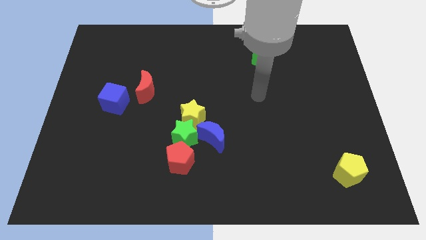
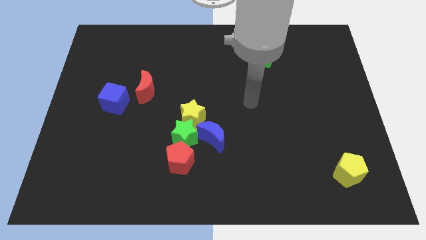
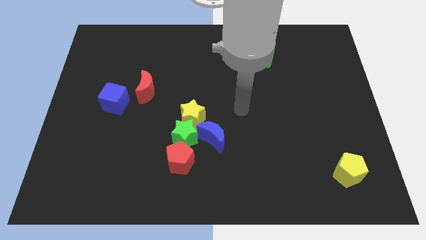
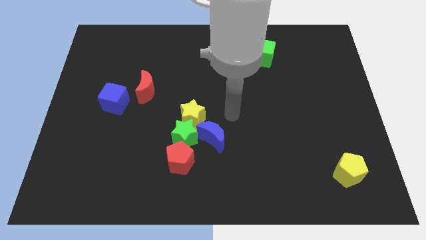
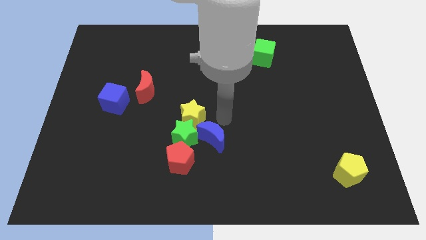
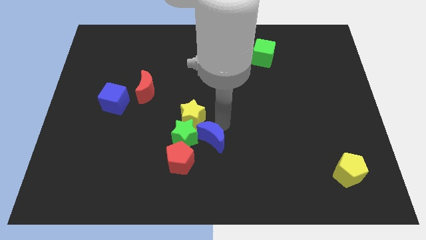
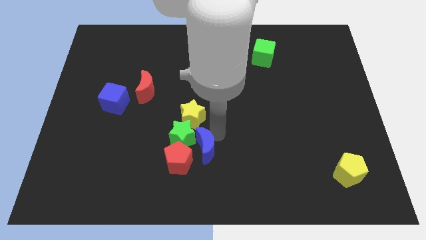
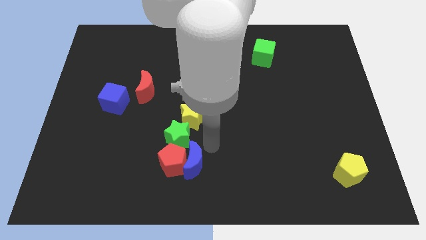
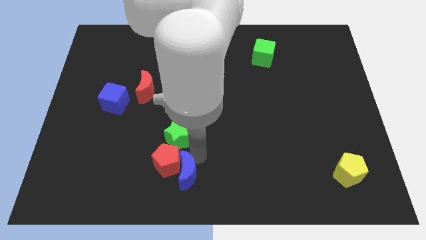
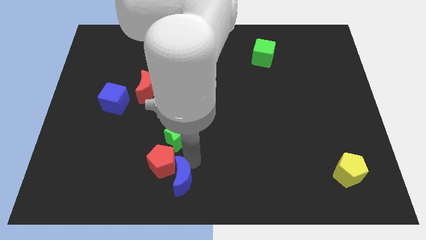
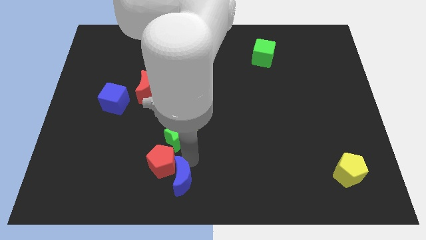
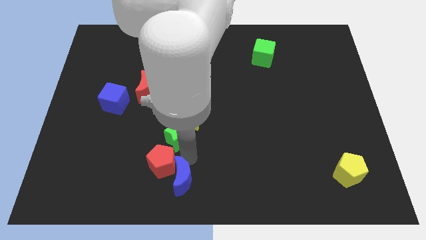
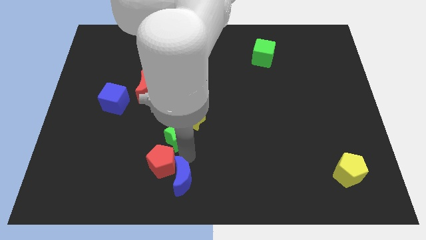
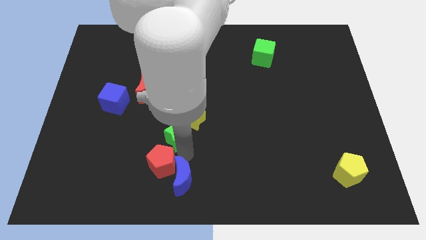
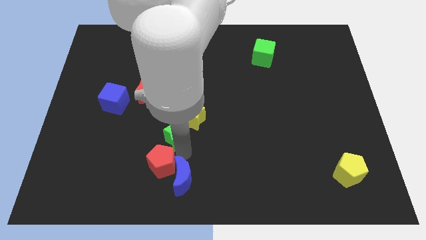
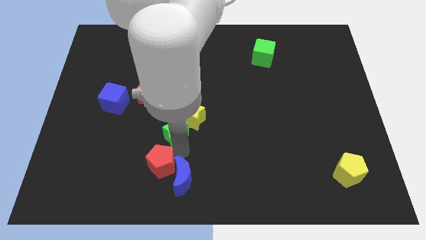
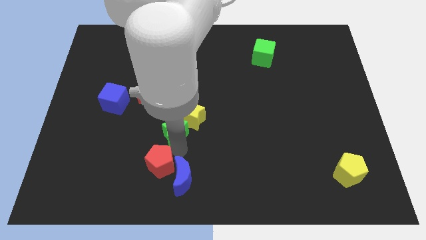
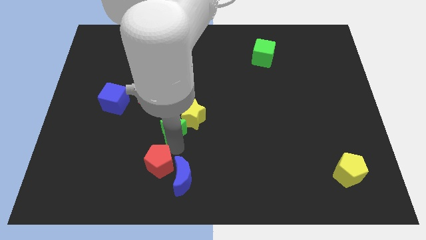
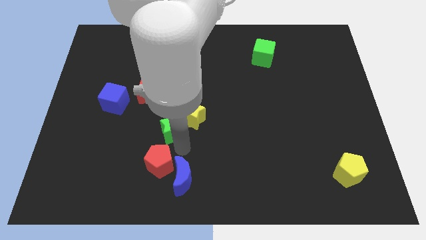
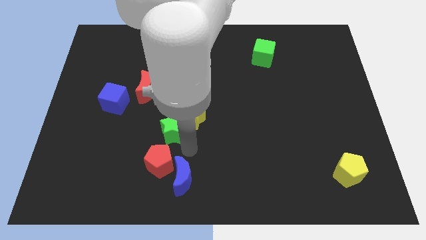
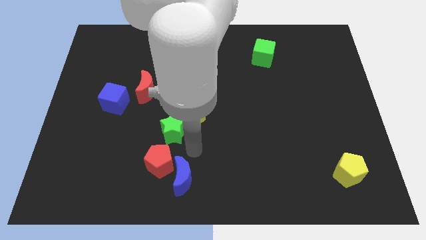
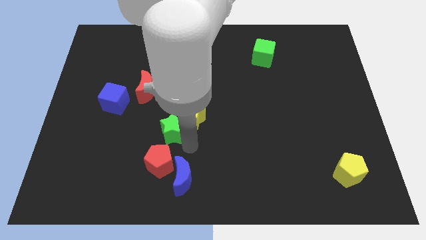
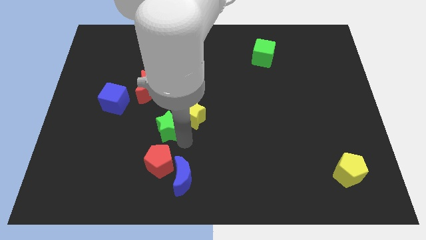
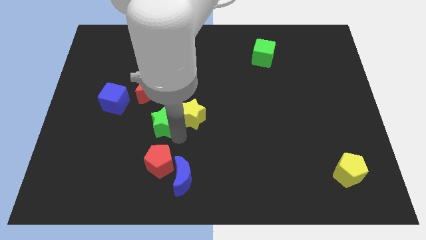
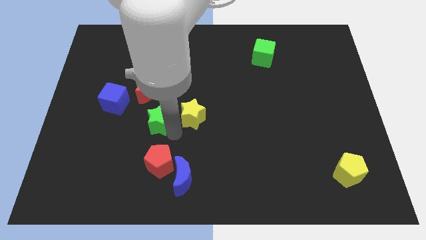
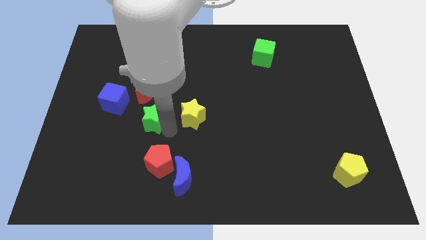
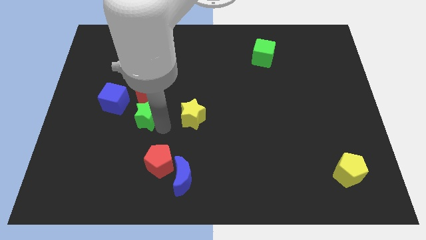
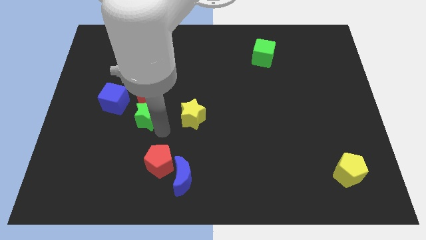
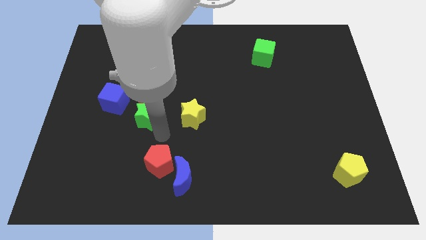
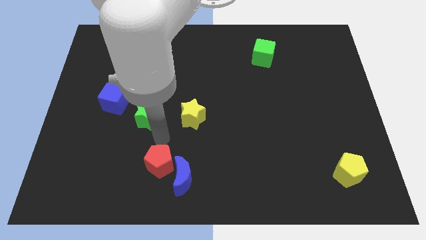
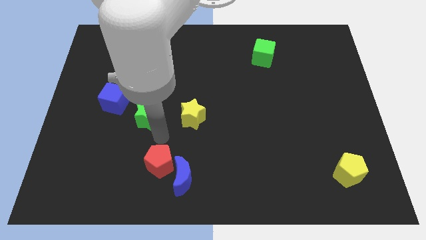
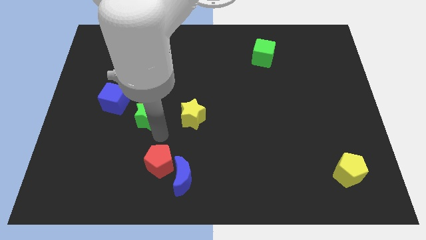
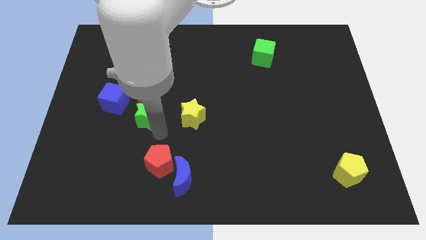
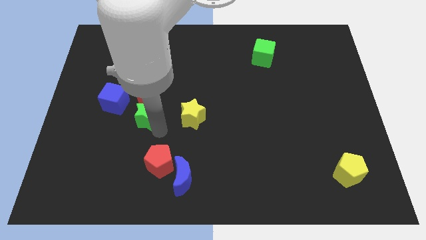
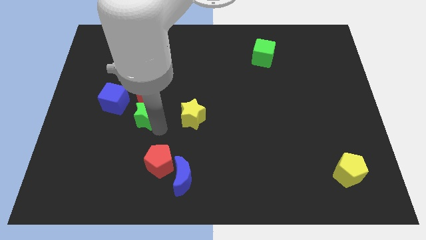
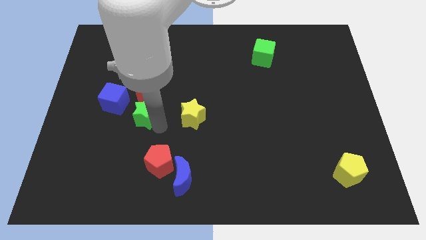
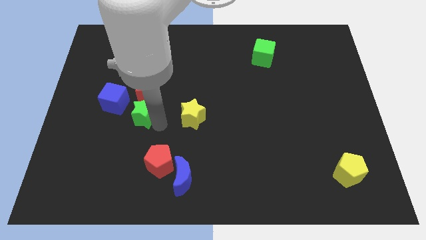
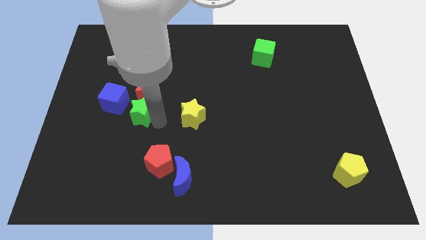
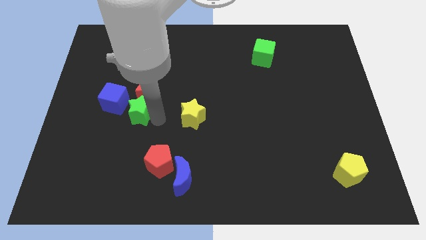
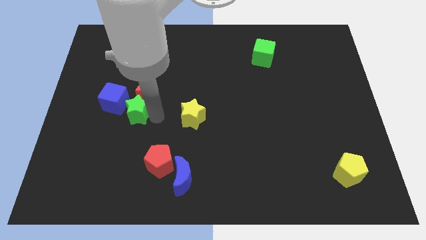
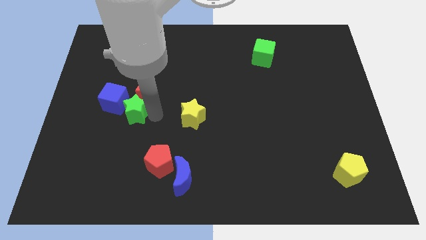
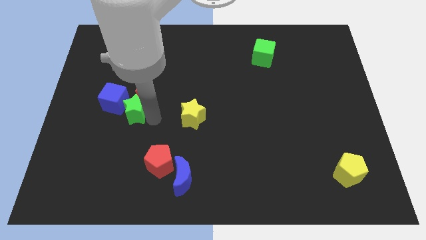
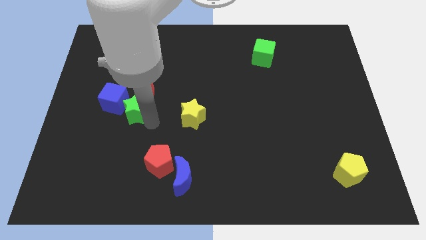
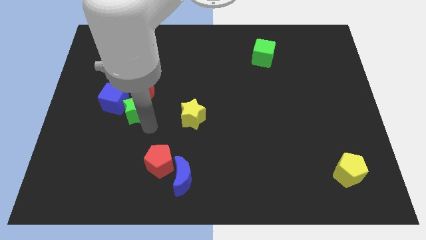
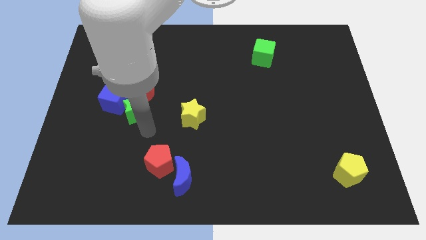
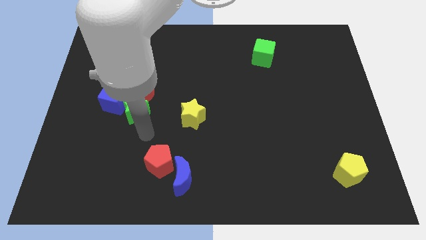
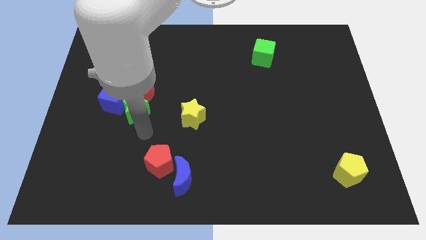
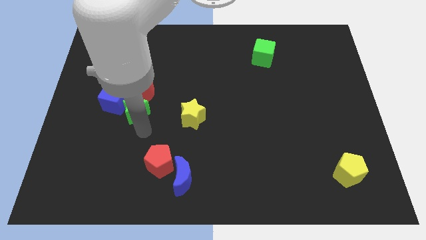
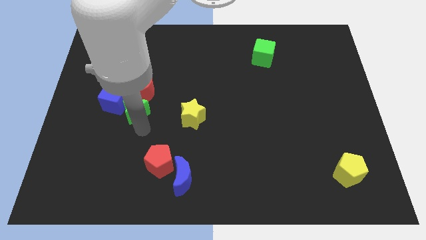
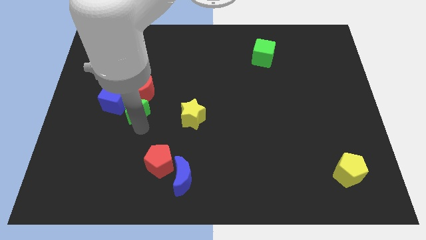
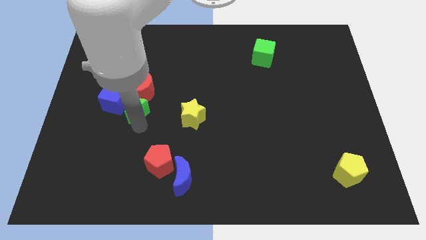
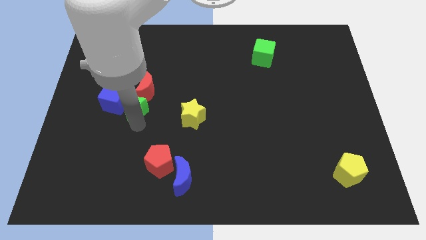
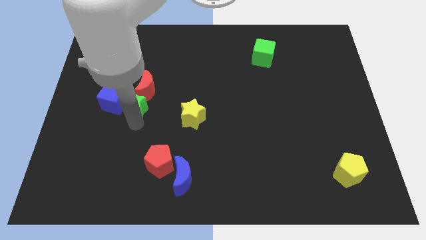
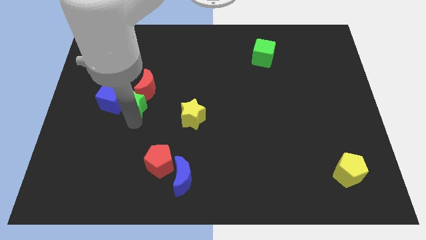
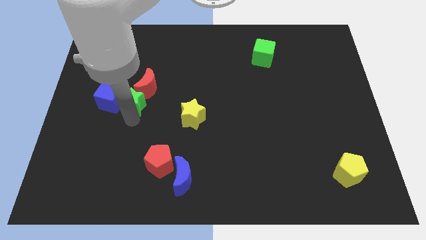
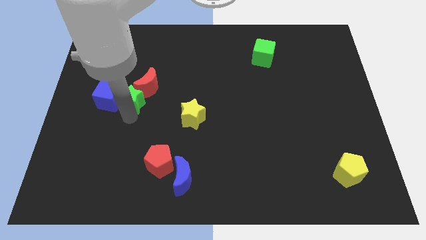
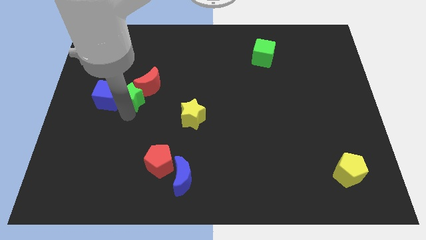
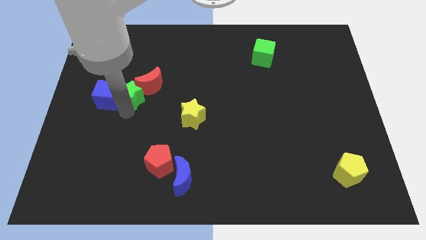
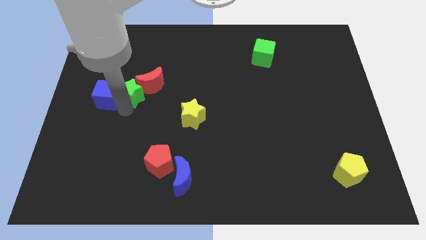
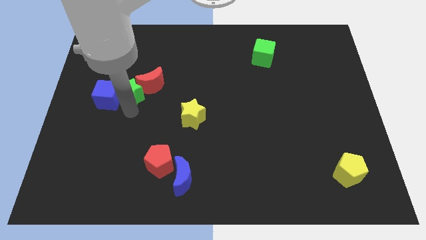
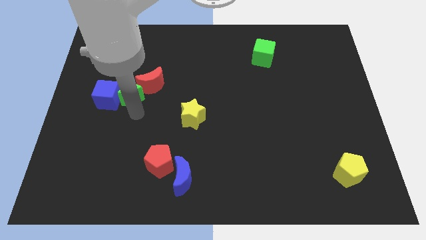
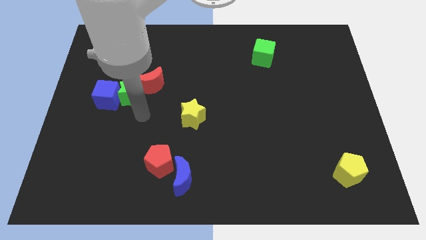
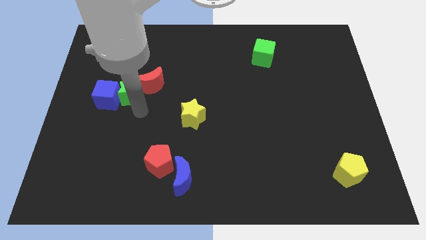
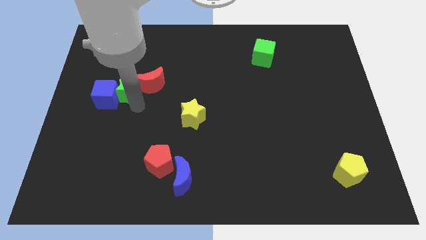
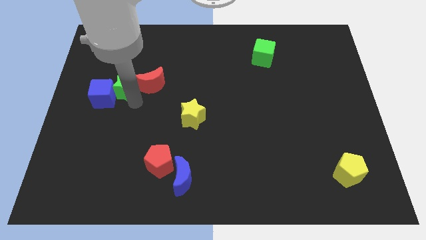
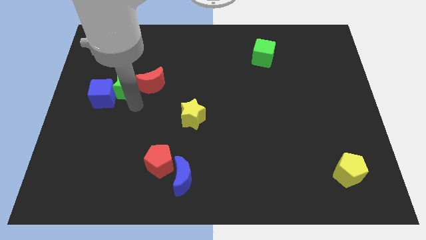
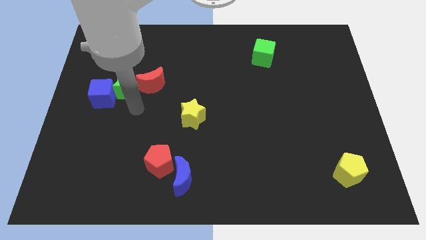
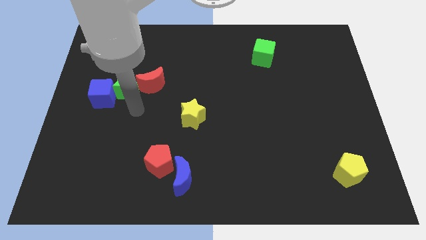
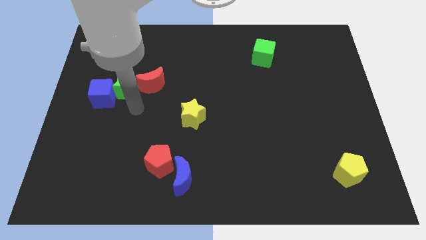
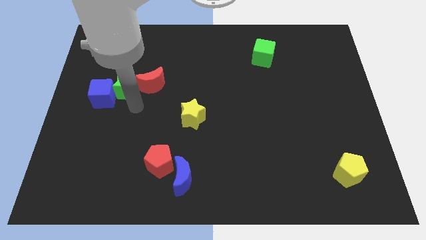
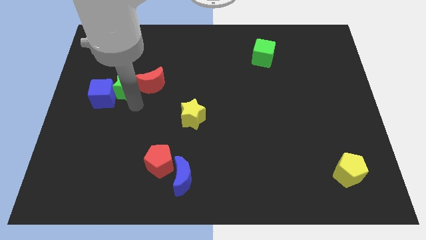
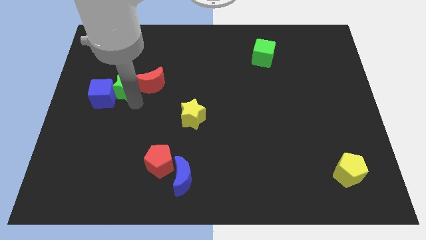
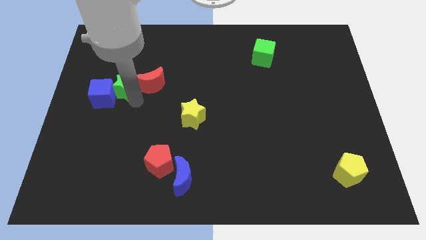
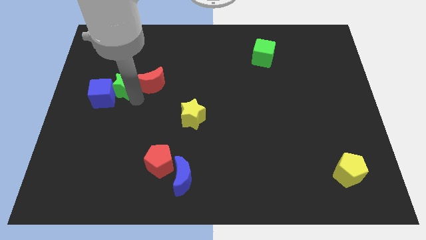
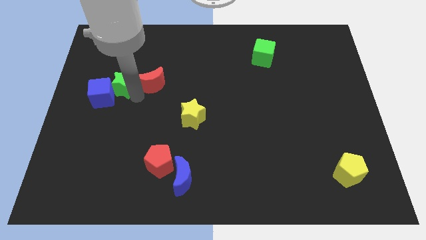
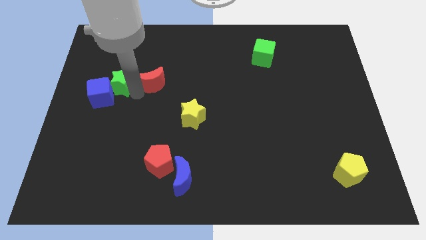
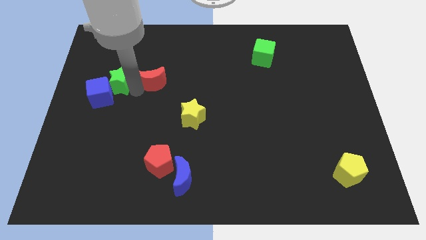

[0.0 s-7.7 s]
slide the green star above the blue cube
